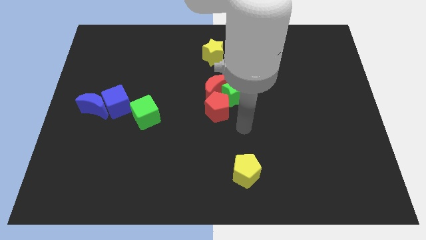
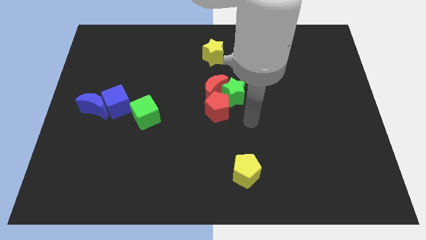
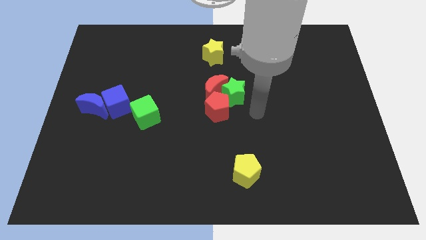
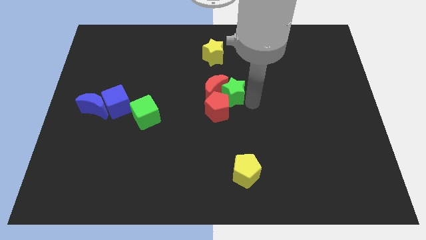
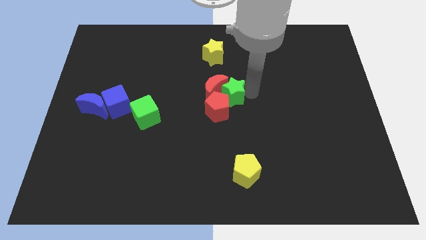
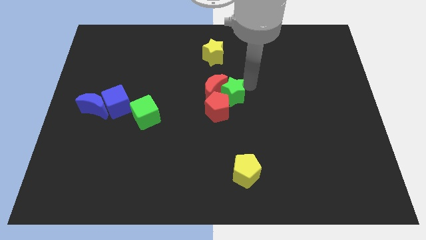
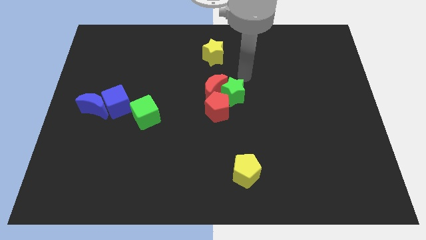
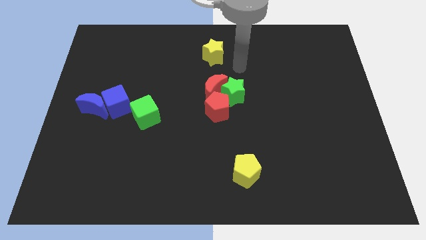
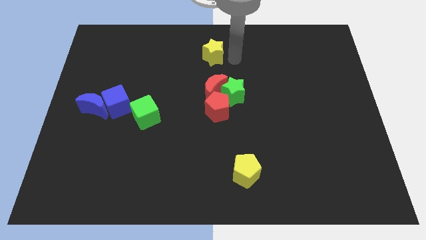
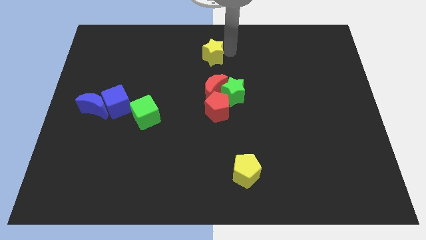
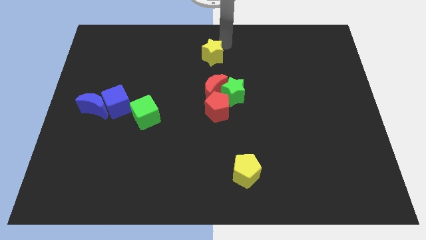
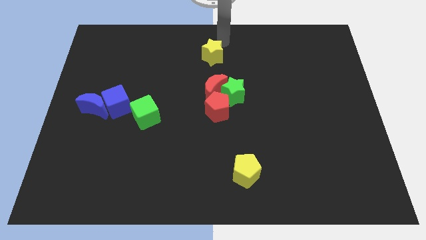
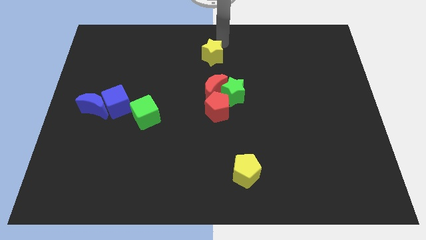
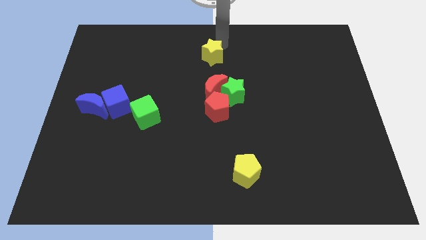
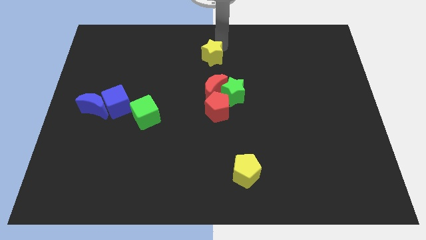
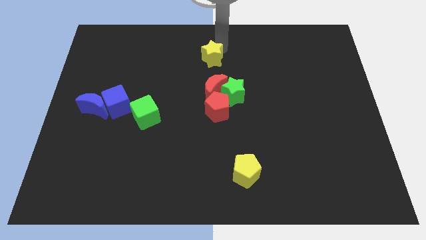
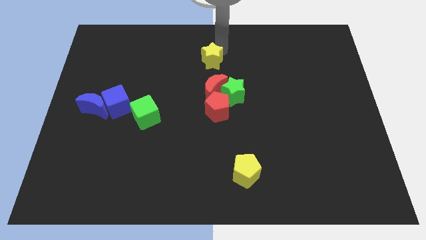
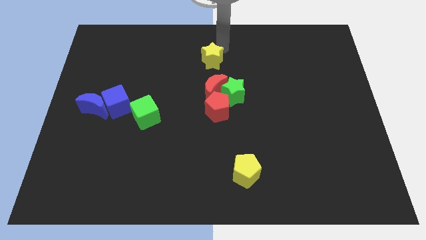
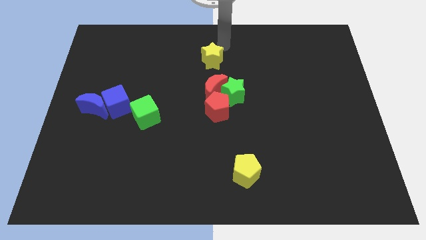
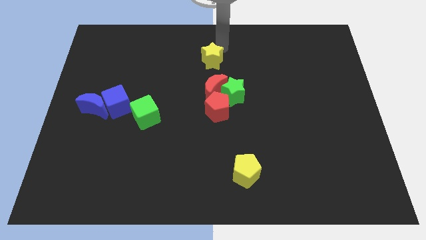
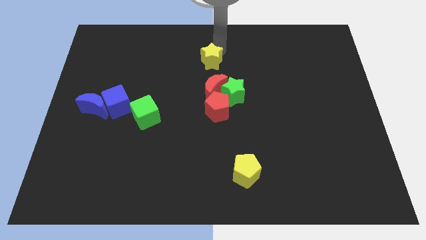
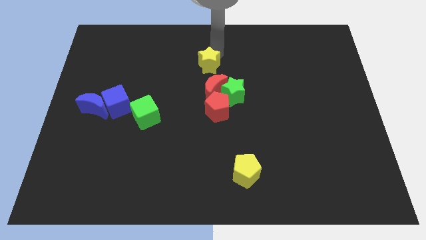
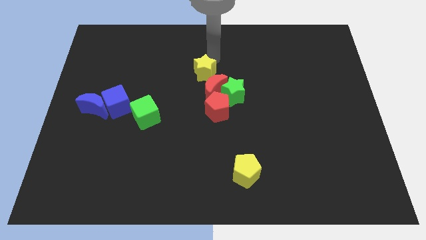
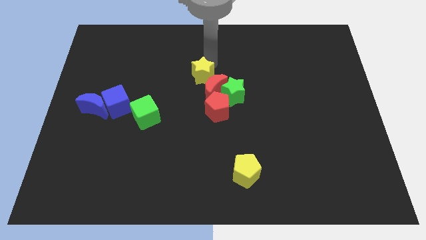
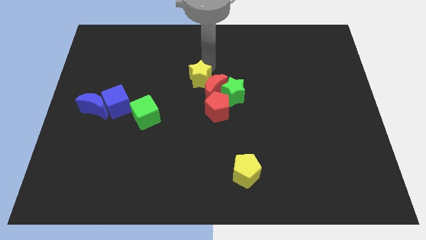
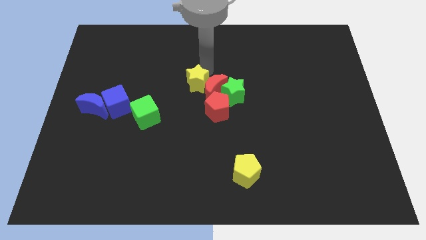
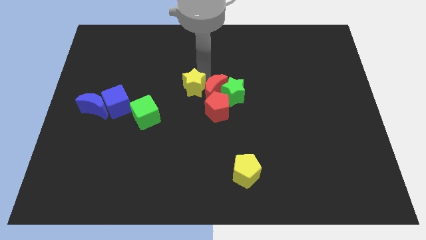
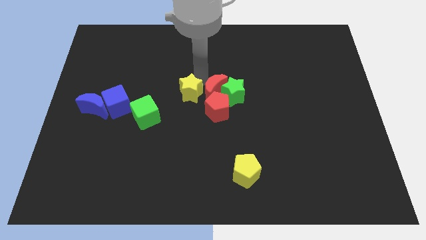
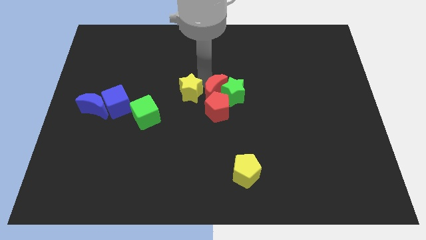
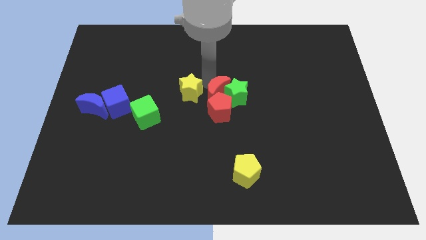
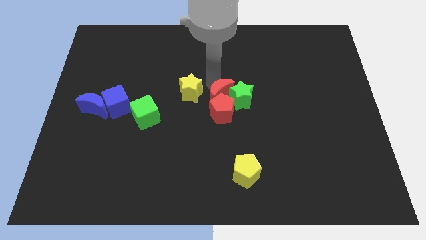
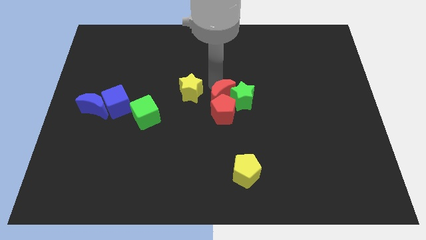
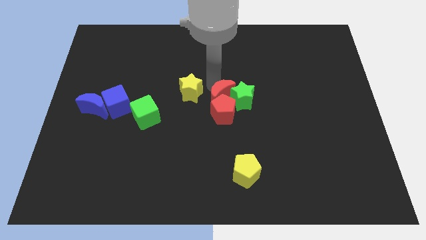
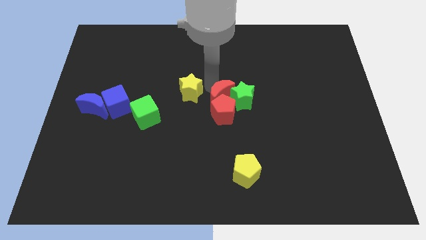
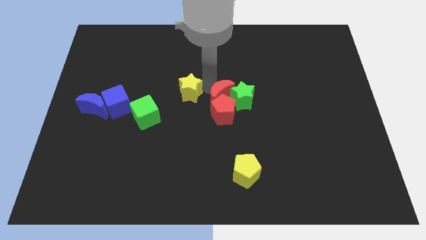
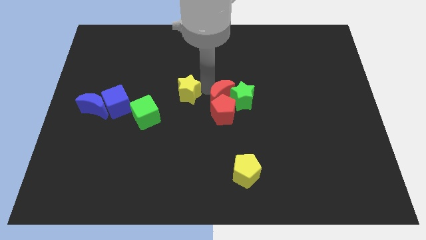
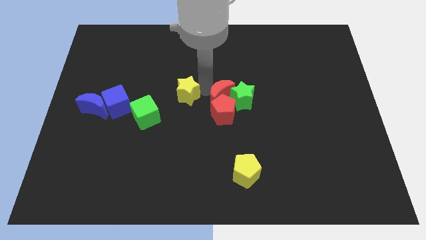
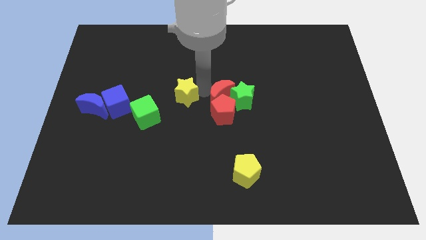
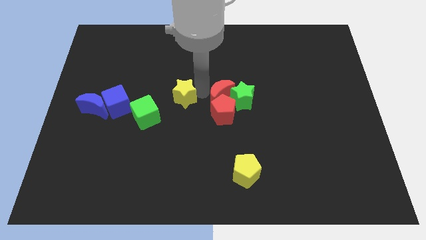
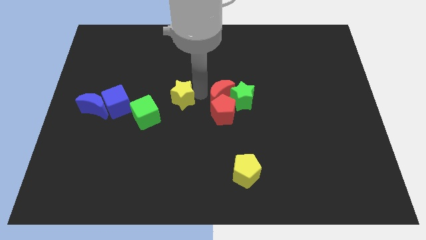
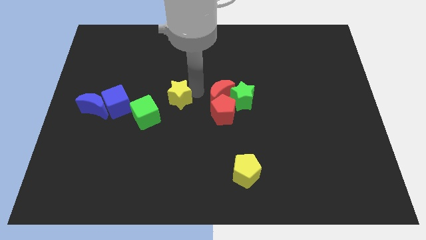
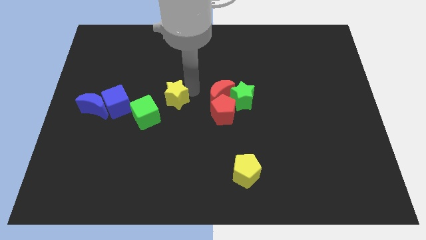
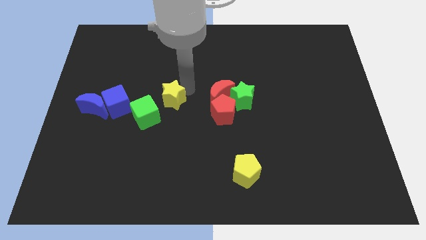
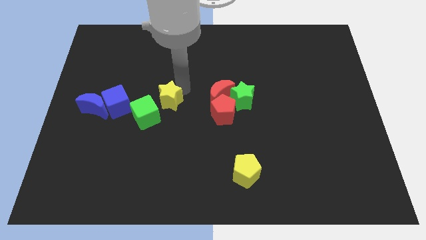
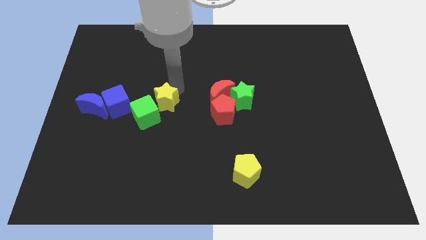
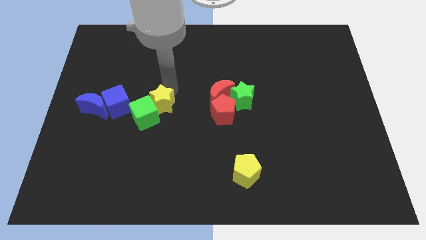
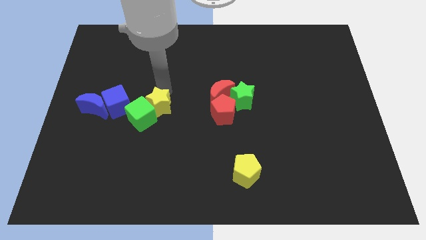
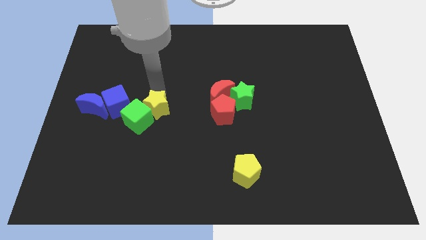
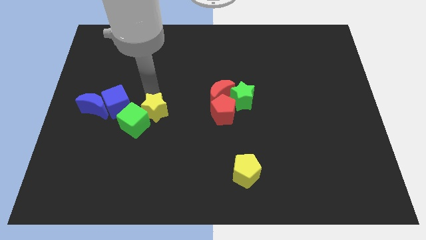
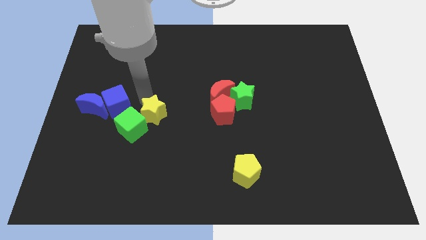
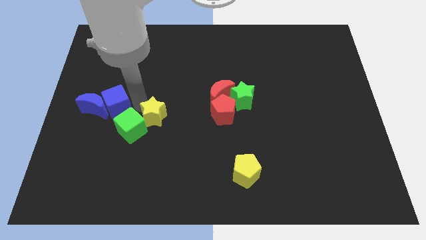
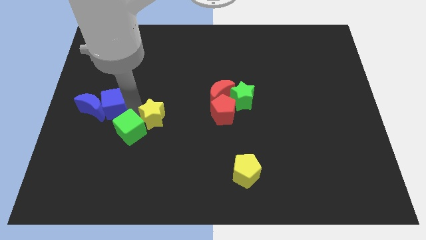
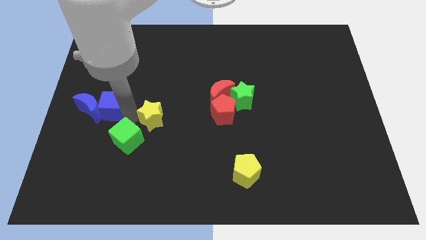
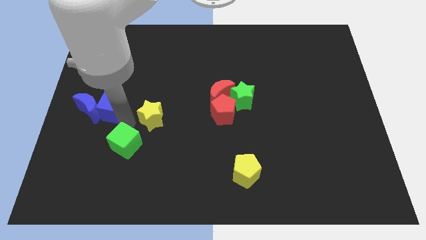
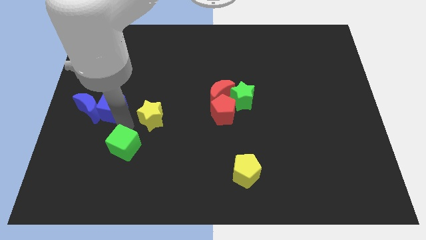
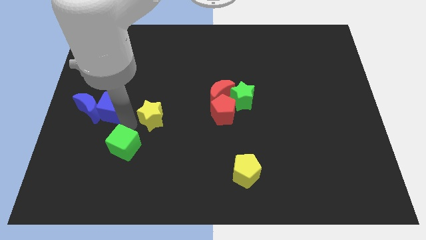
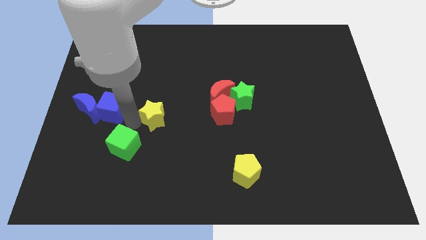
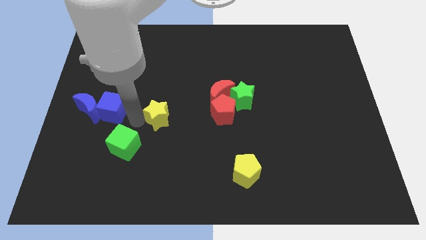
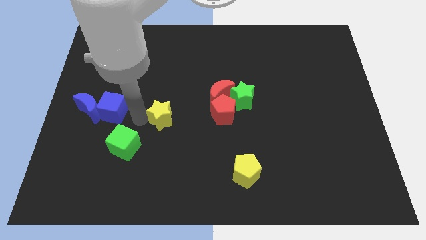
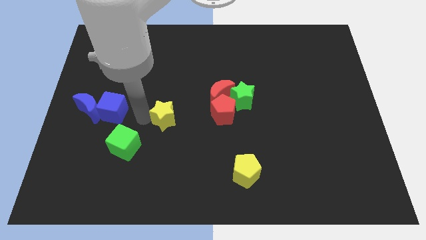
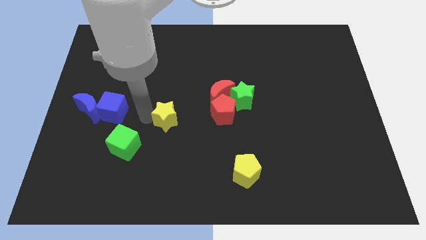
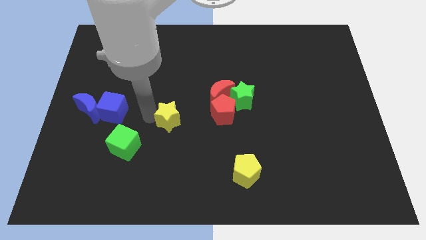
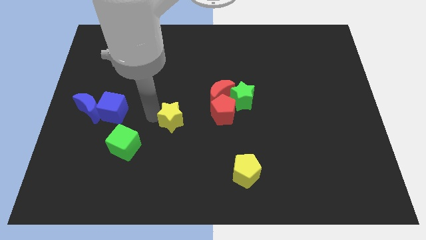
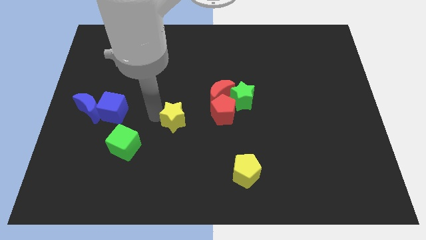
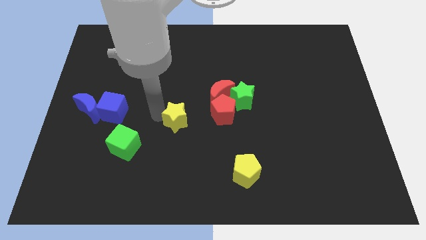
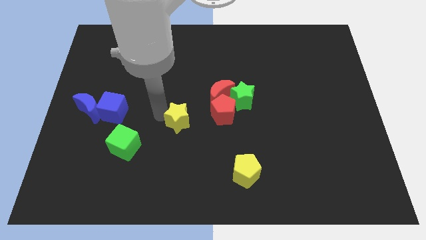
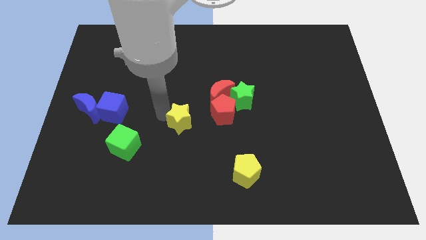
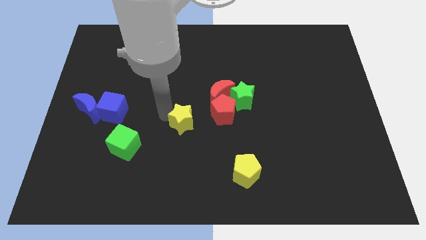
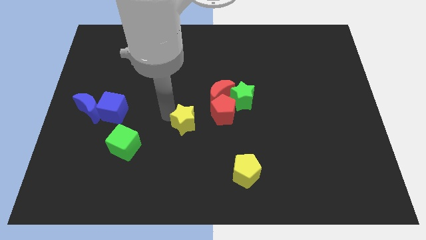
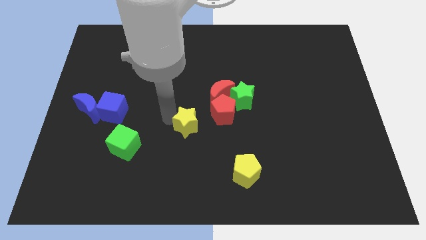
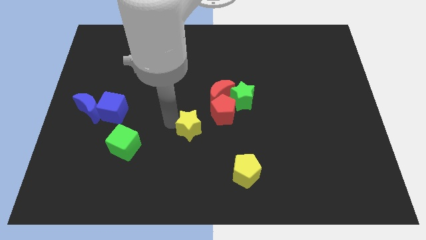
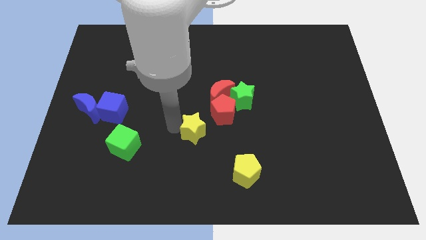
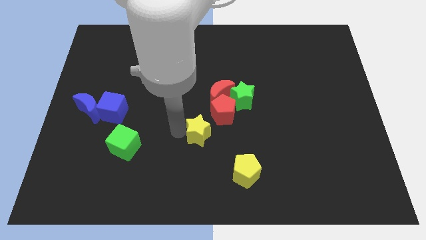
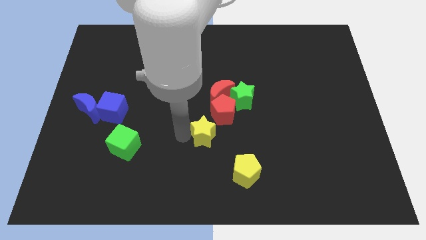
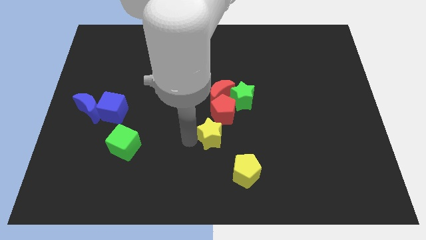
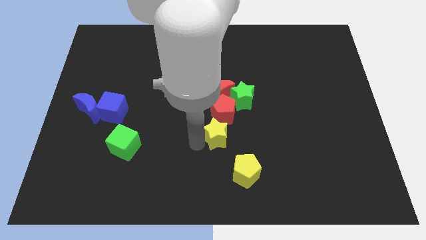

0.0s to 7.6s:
push the yellow star diagonally down and to the left of the green star

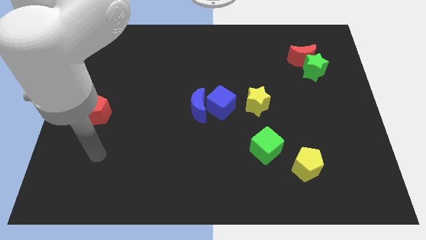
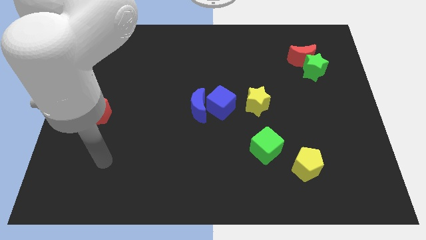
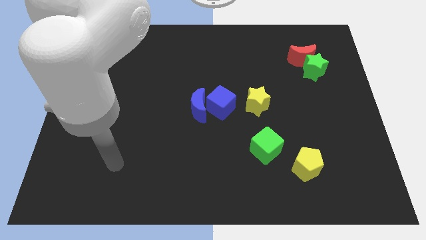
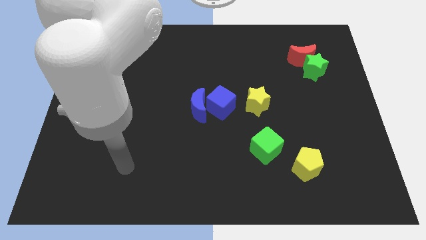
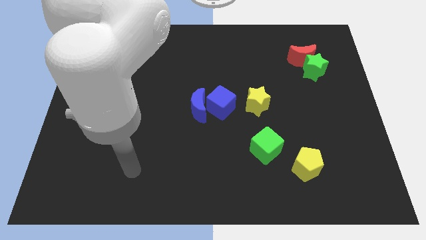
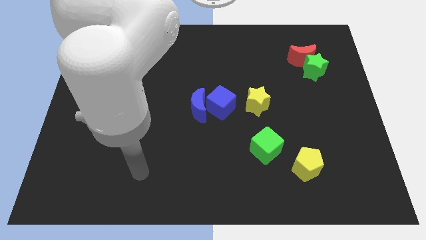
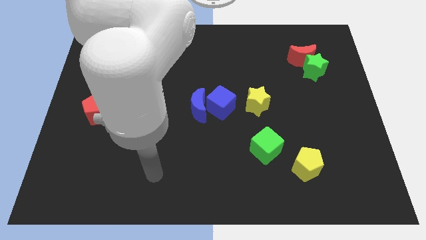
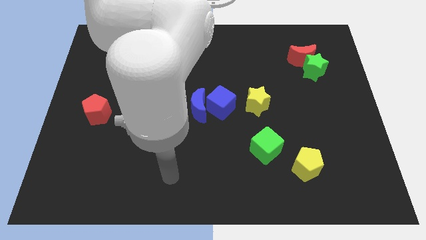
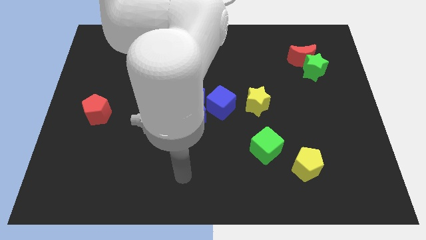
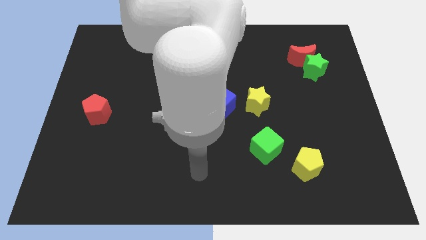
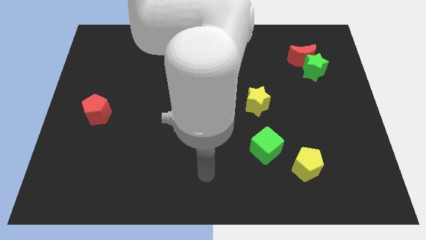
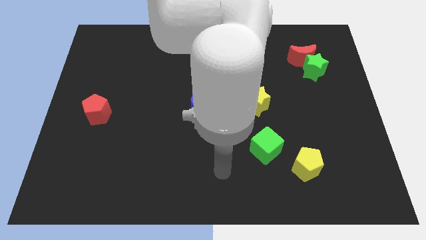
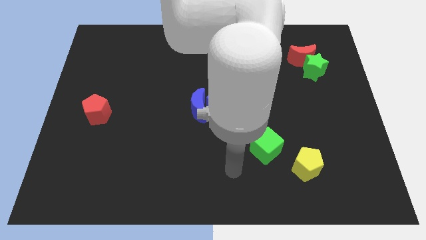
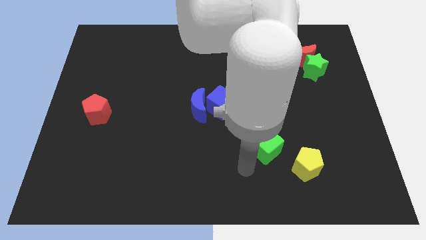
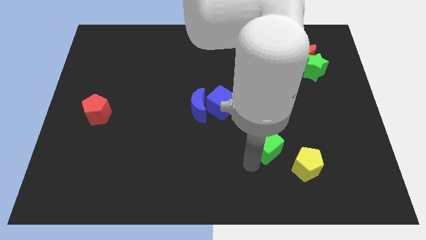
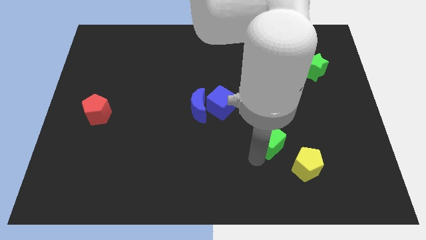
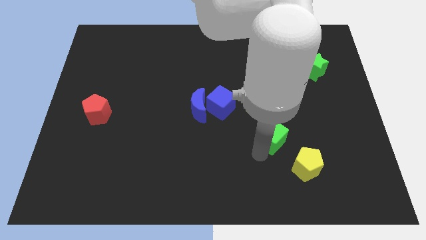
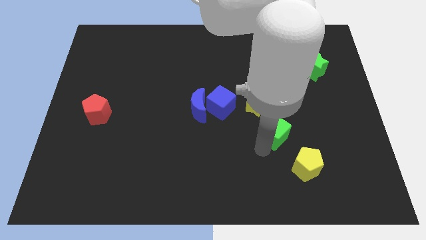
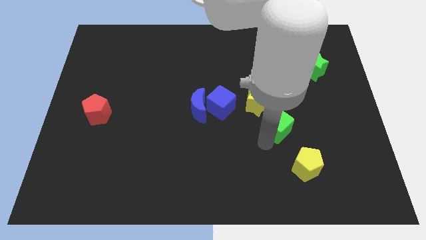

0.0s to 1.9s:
slide the green cube above the yellow pentagon
